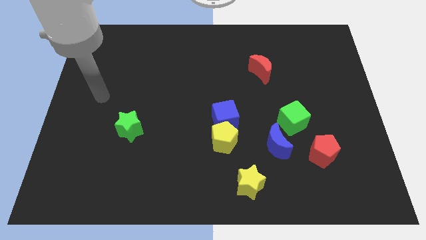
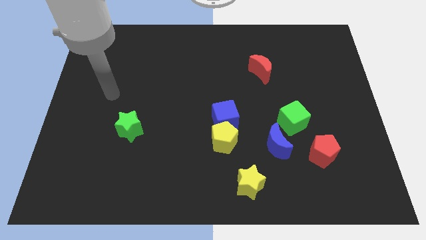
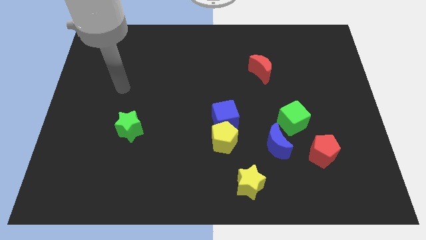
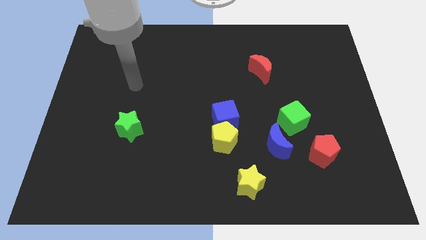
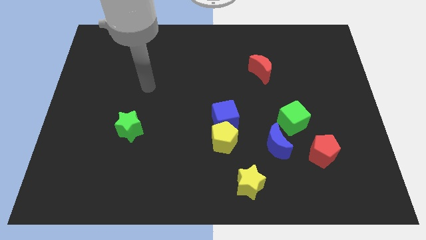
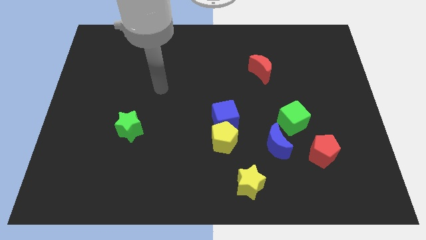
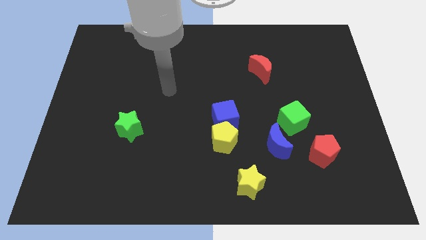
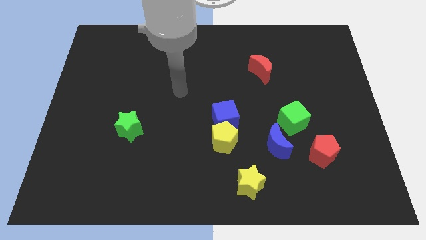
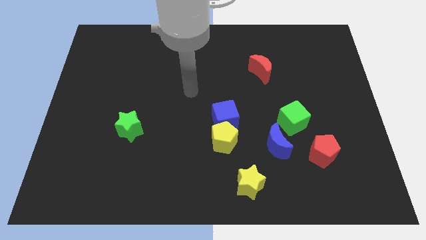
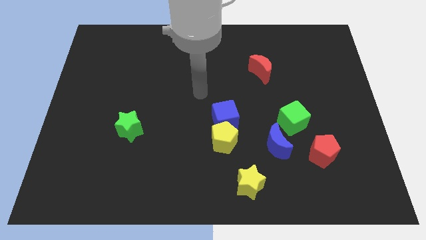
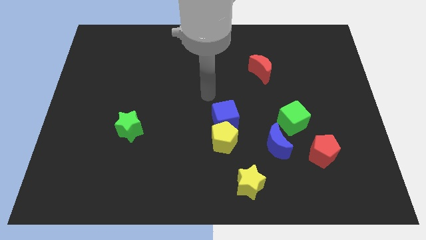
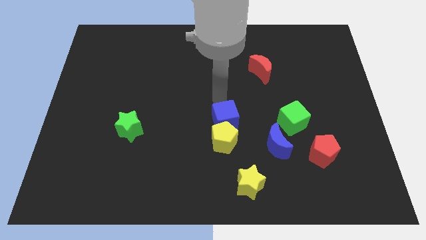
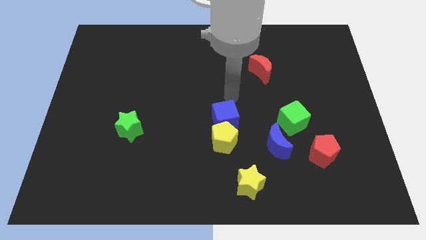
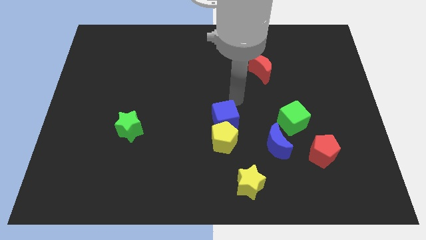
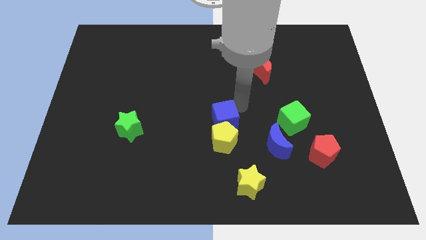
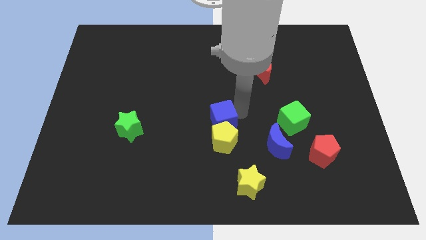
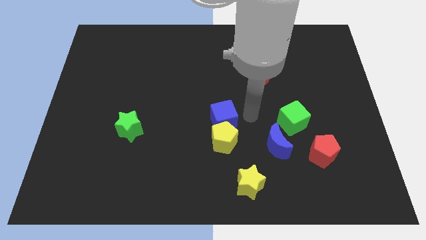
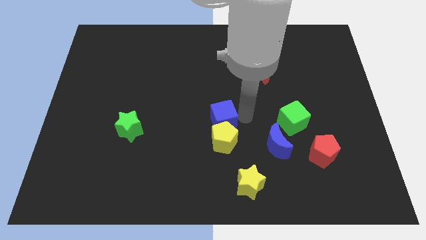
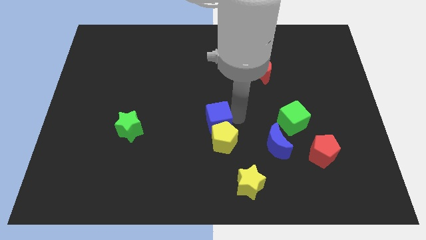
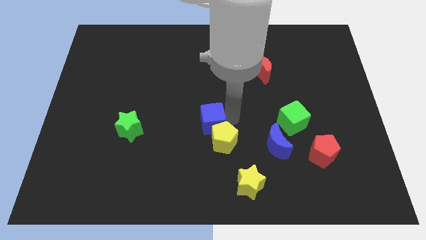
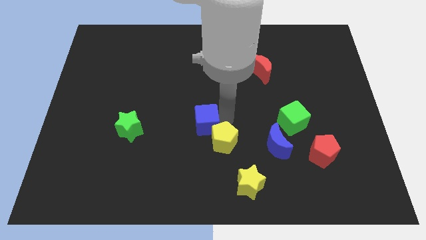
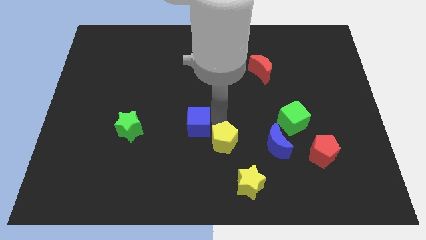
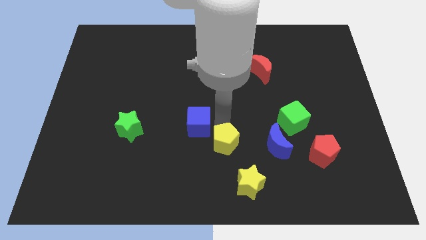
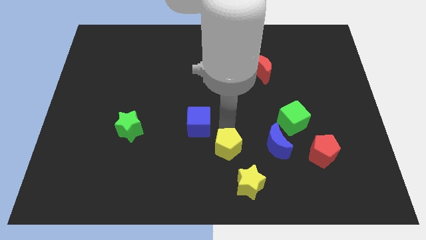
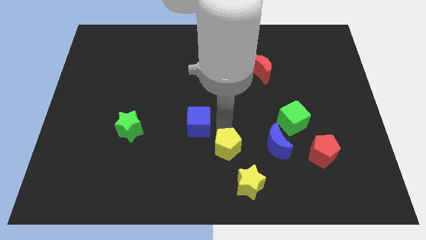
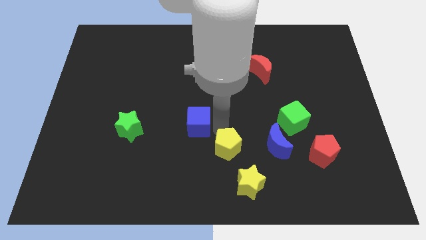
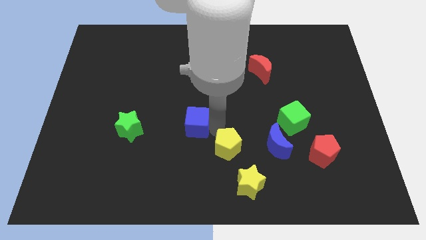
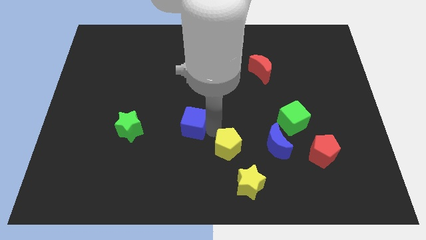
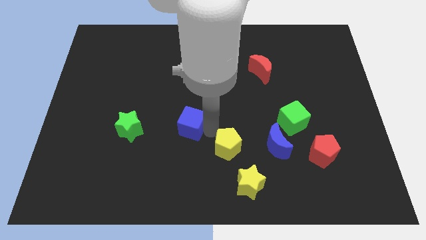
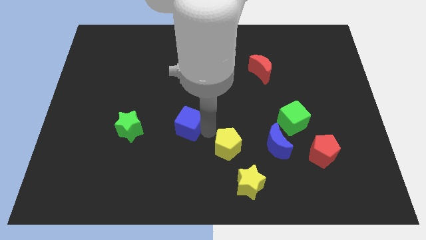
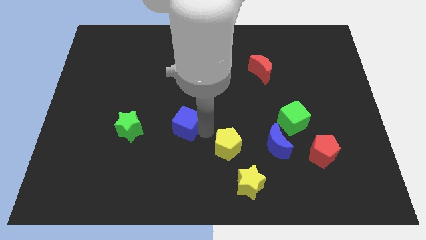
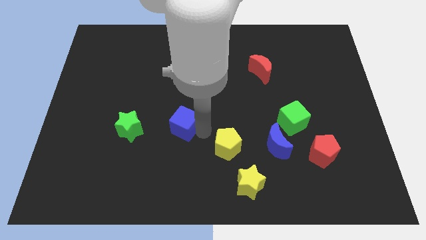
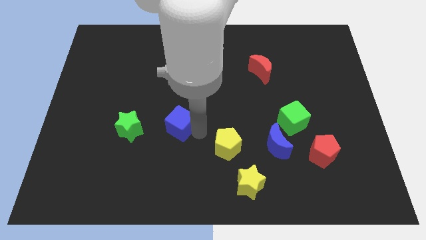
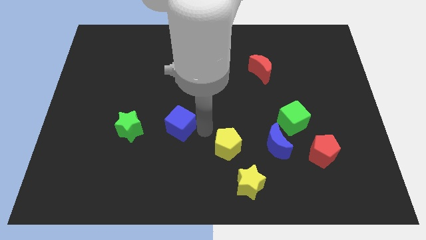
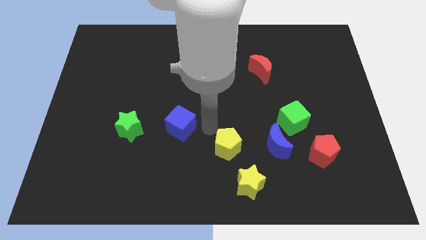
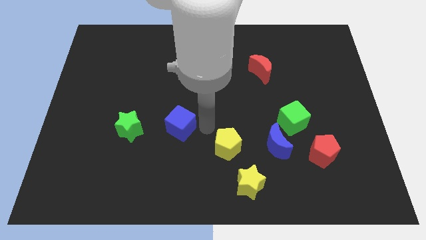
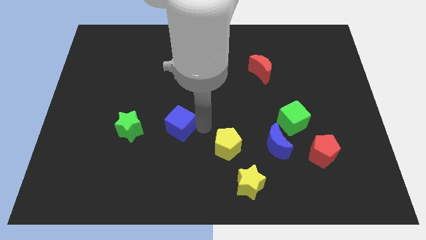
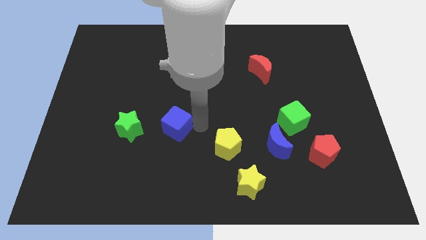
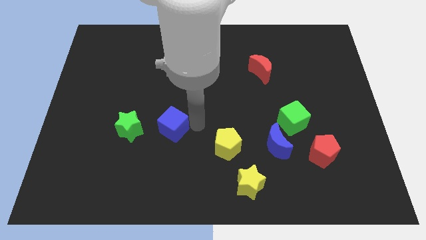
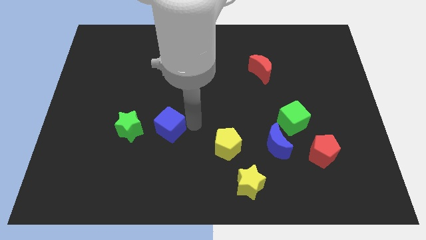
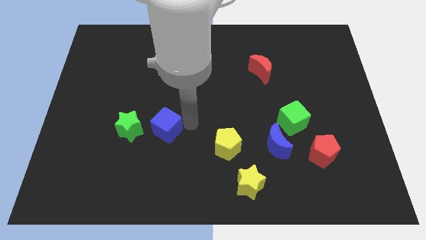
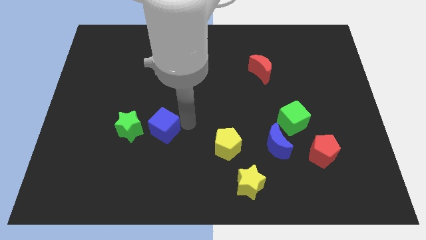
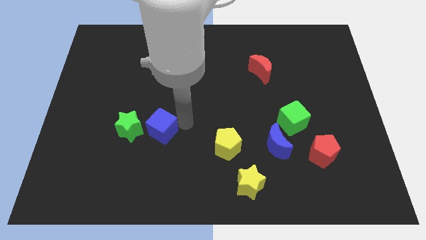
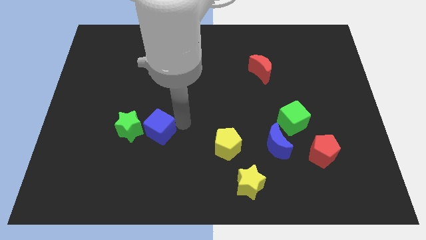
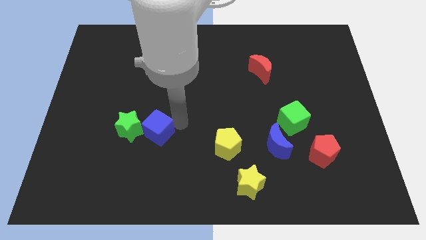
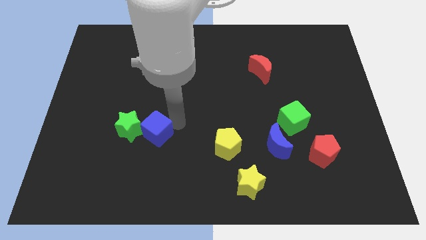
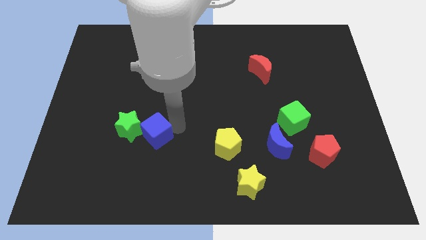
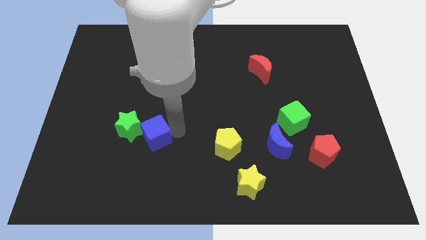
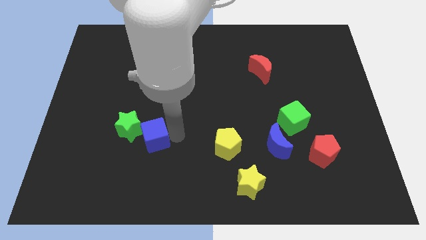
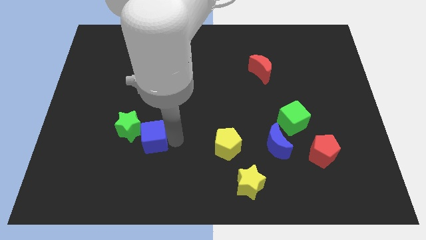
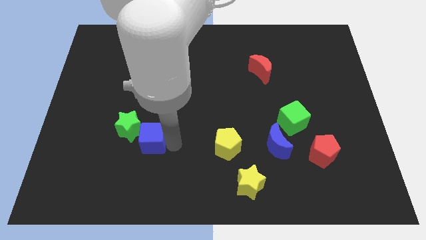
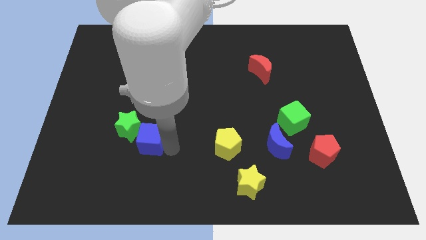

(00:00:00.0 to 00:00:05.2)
push the blue cube towards the green star

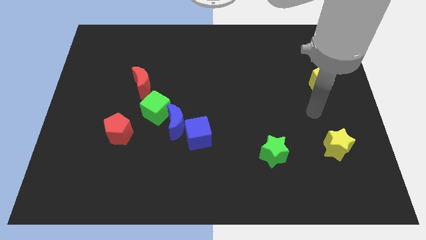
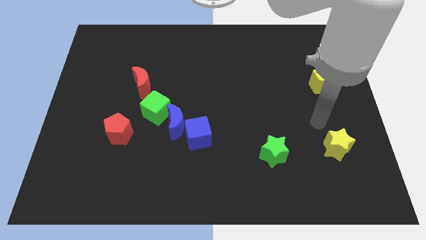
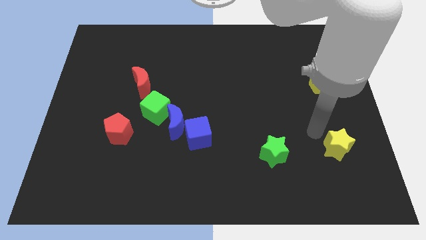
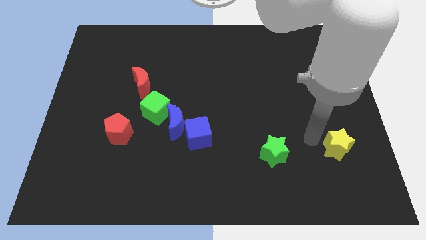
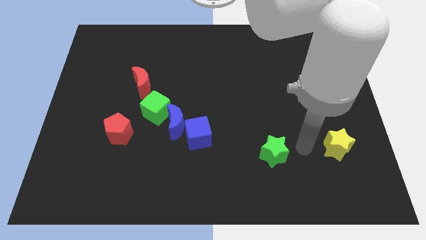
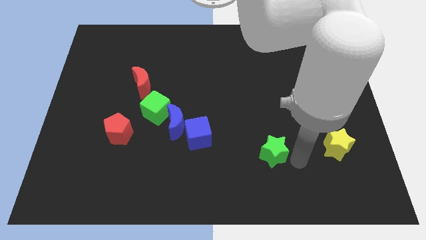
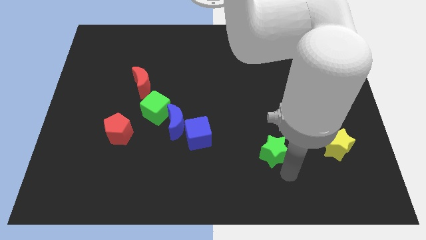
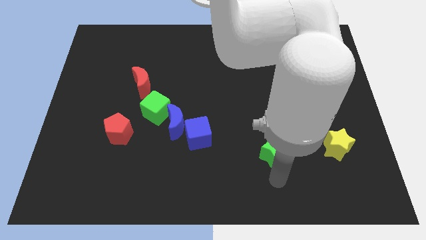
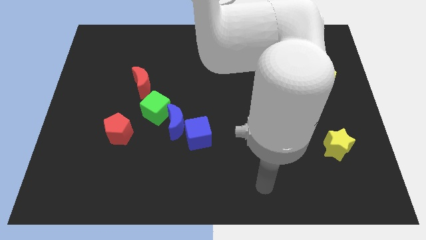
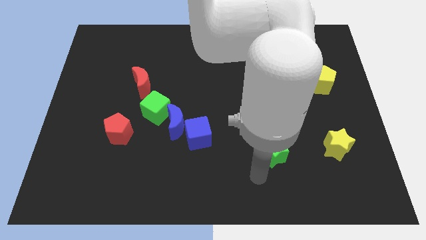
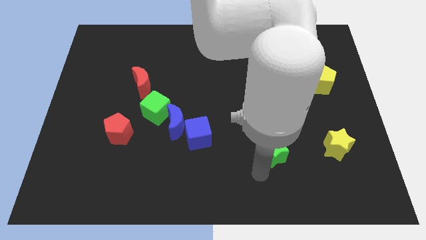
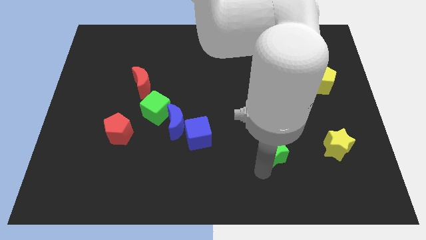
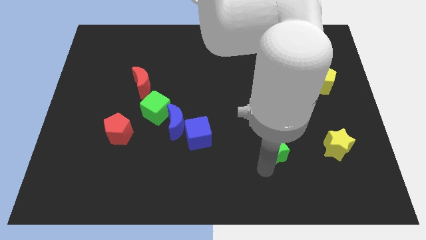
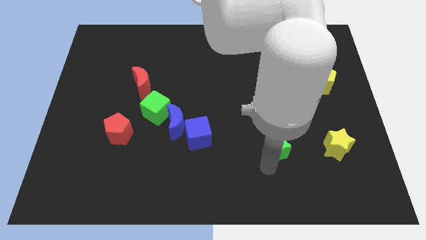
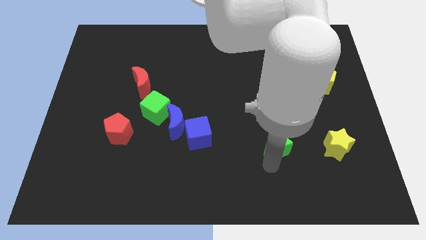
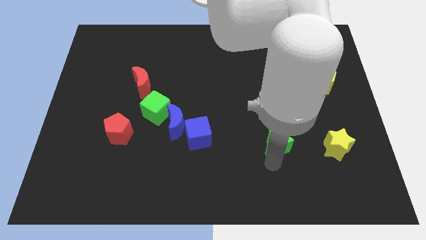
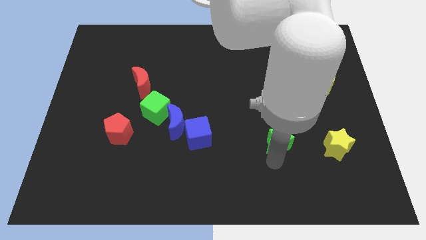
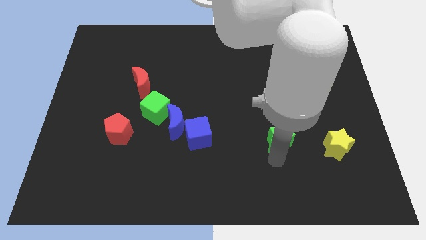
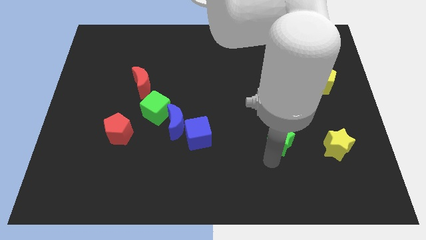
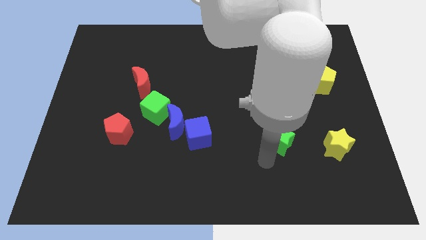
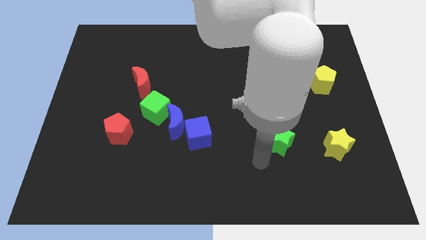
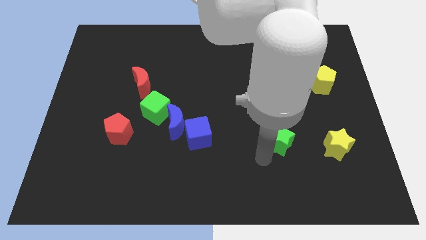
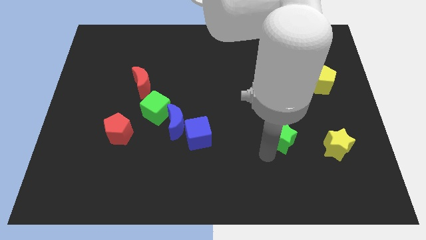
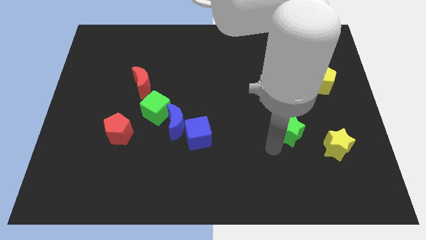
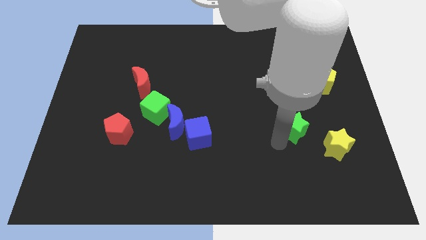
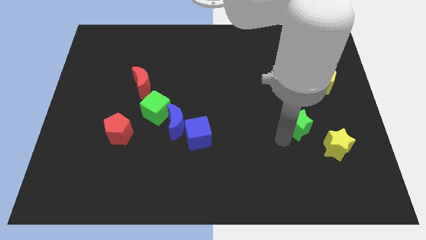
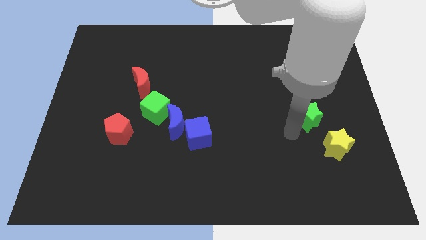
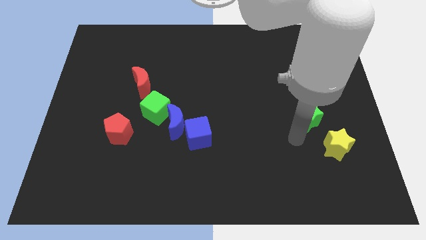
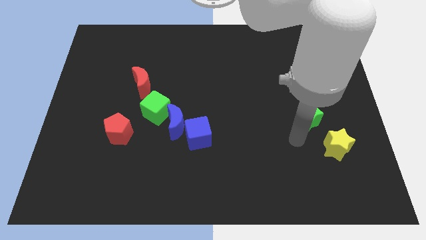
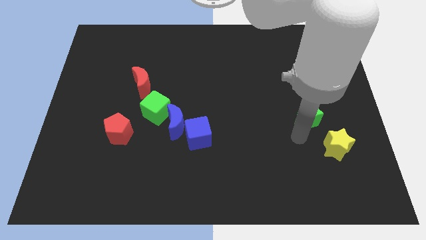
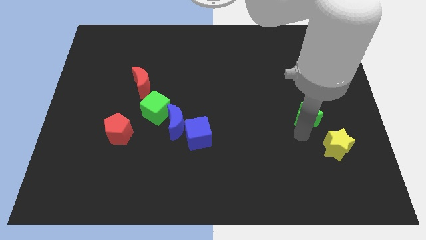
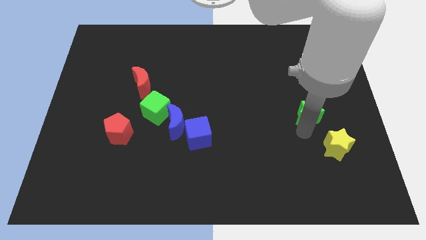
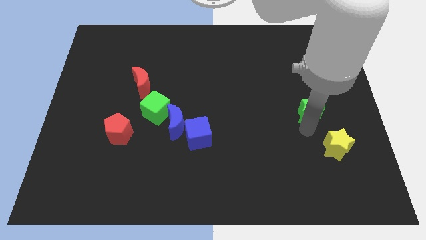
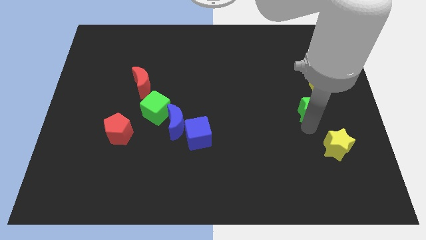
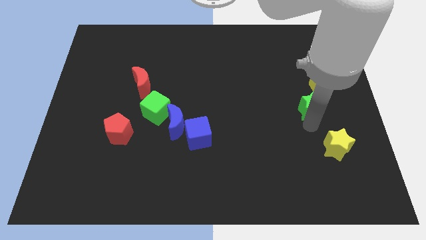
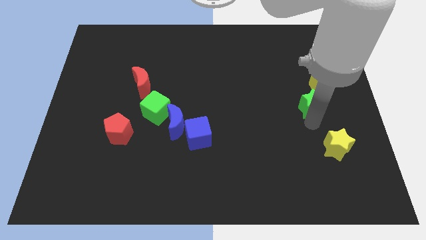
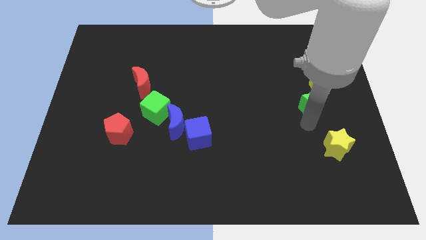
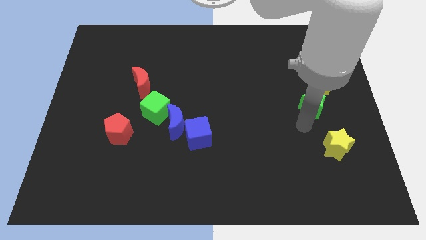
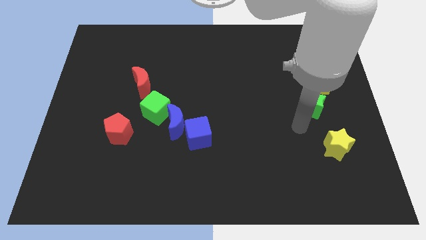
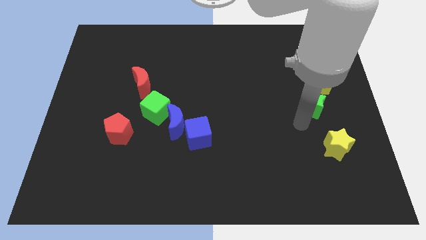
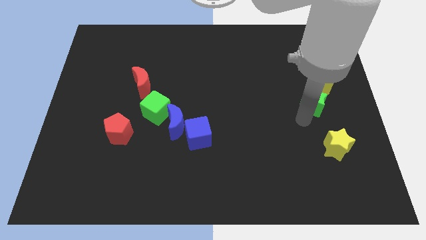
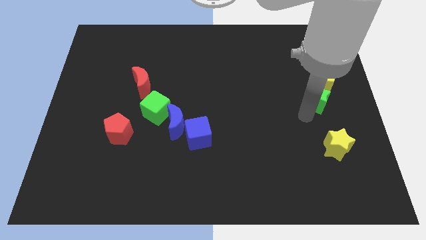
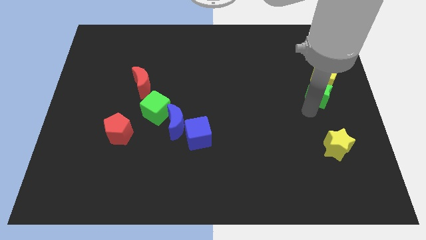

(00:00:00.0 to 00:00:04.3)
put the green star to the yellow pentagon
